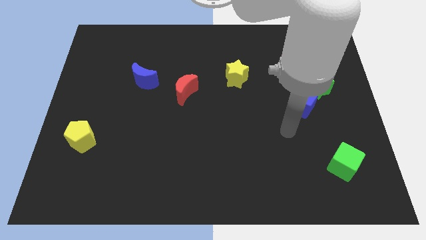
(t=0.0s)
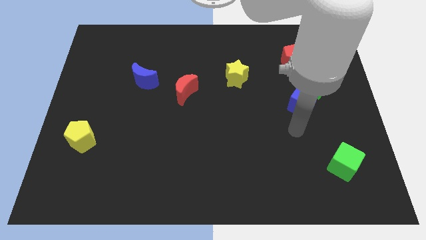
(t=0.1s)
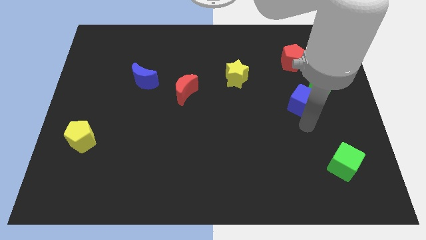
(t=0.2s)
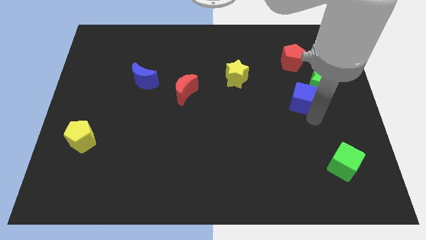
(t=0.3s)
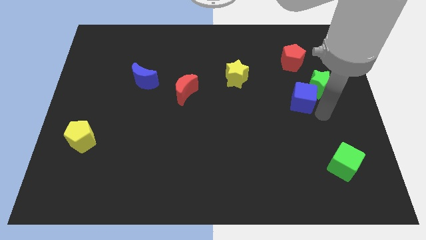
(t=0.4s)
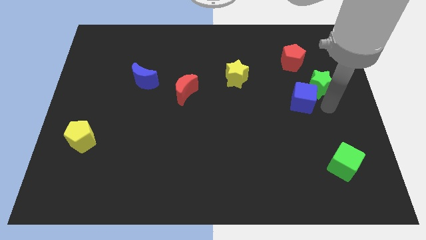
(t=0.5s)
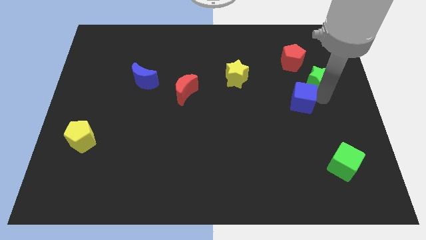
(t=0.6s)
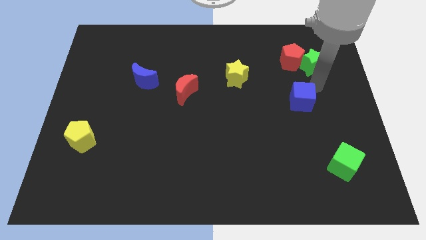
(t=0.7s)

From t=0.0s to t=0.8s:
separate the blue cube from the green star

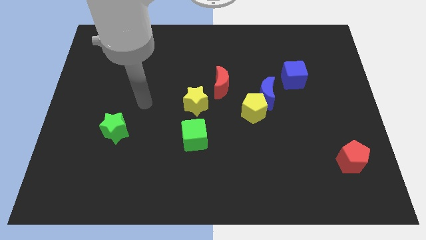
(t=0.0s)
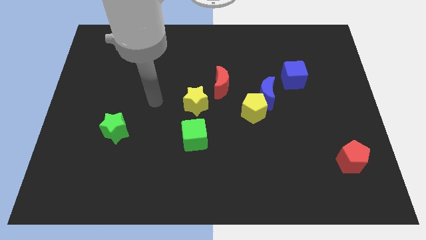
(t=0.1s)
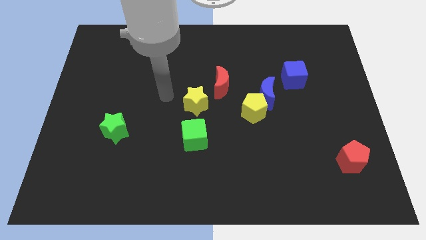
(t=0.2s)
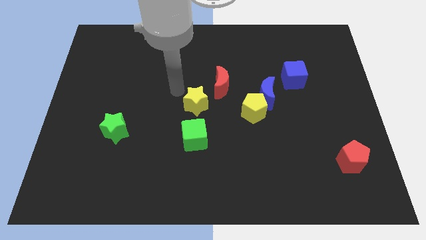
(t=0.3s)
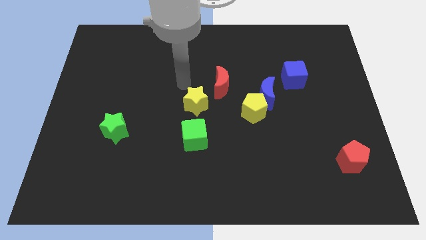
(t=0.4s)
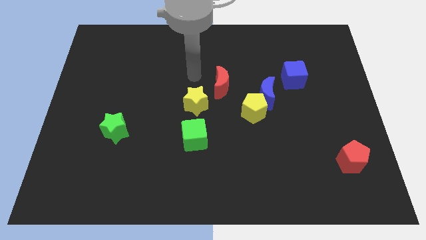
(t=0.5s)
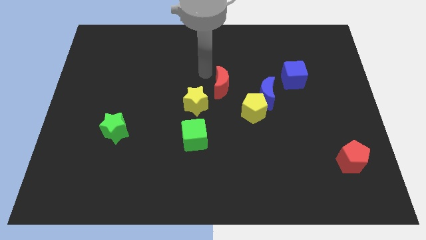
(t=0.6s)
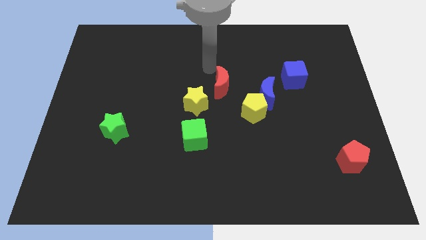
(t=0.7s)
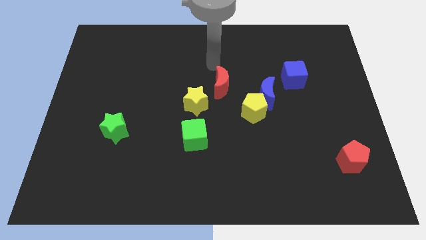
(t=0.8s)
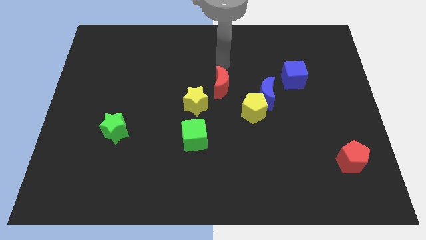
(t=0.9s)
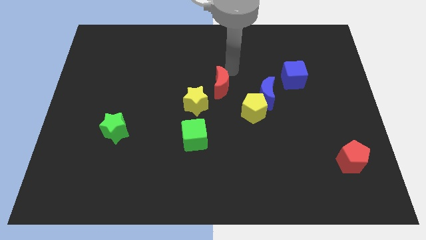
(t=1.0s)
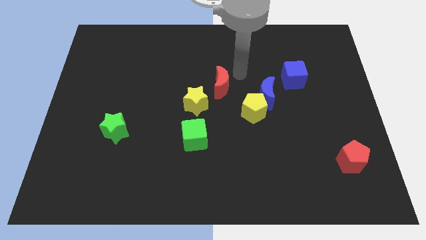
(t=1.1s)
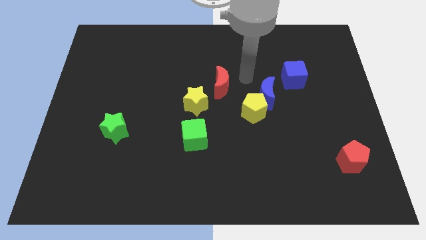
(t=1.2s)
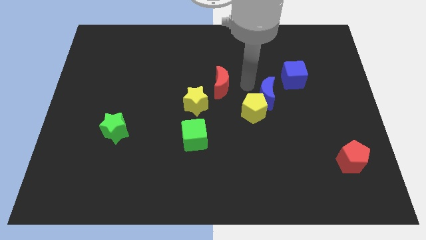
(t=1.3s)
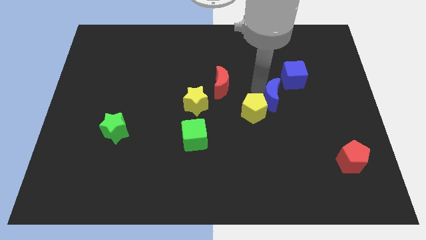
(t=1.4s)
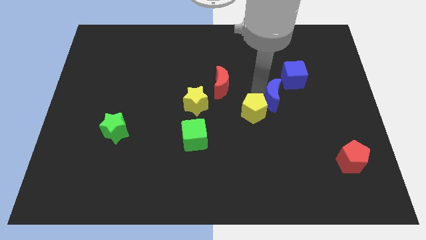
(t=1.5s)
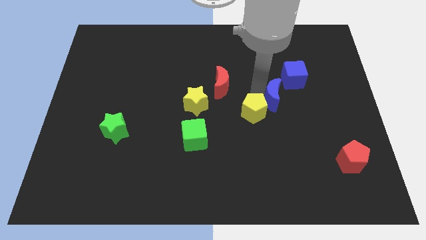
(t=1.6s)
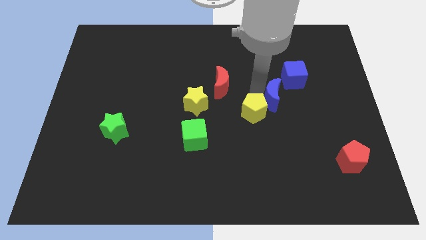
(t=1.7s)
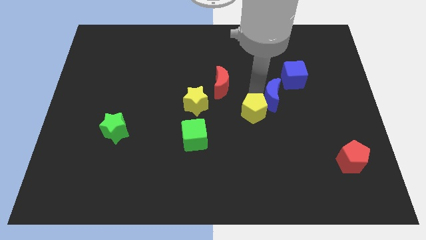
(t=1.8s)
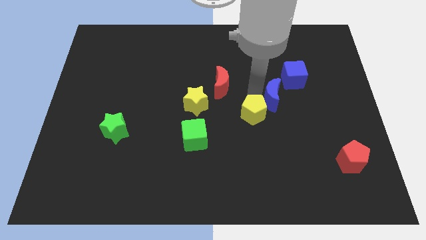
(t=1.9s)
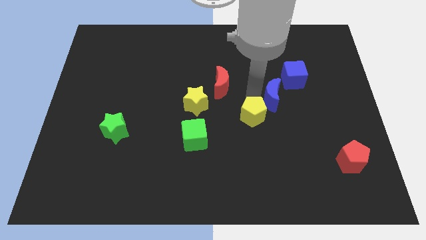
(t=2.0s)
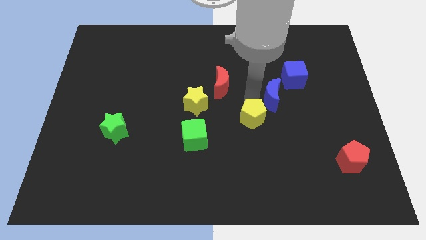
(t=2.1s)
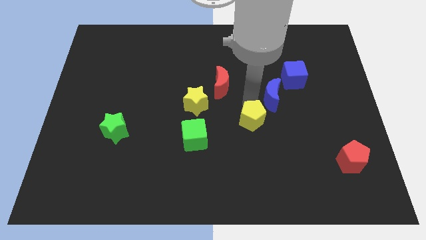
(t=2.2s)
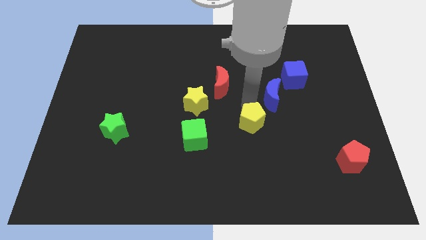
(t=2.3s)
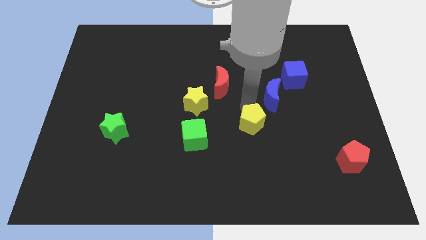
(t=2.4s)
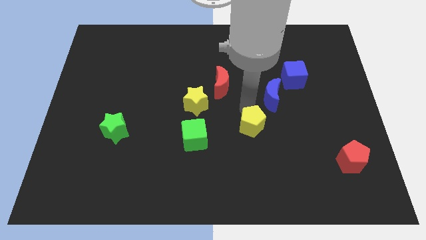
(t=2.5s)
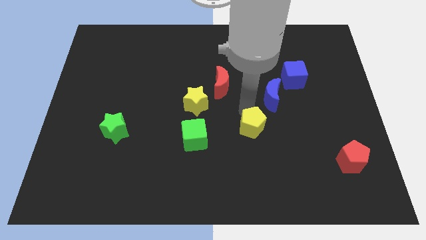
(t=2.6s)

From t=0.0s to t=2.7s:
separate the yellow pentagon from the blue moon

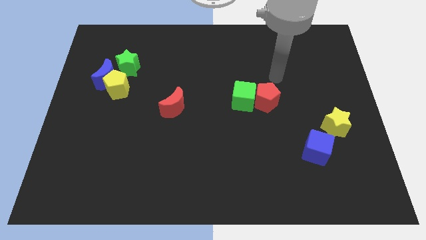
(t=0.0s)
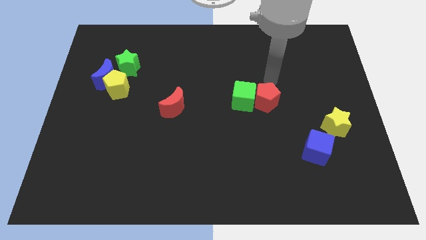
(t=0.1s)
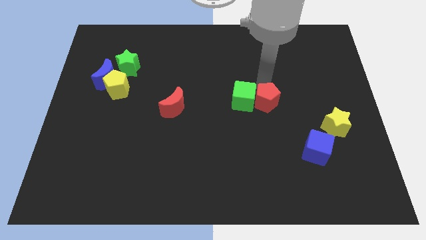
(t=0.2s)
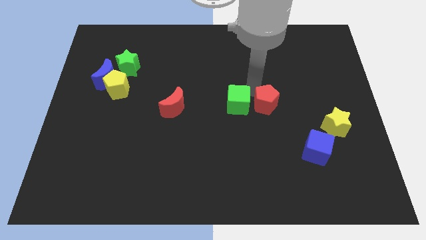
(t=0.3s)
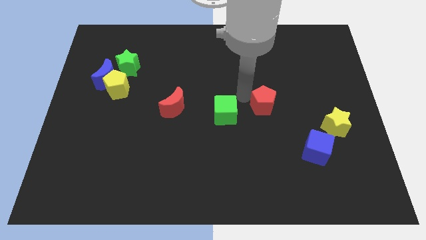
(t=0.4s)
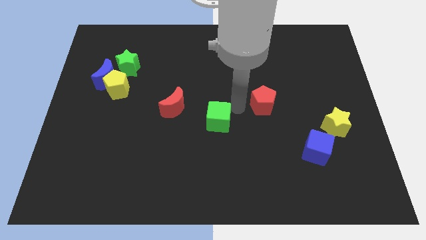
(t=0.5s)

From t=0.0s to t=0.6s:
pull the red pentagon apart from the green cube

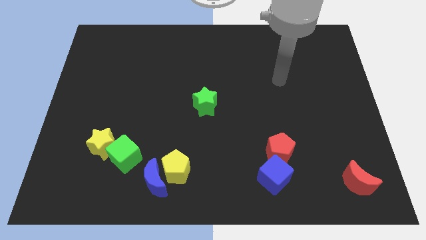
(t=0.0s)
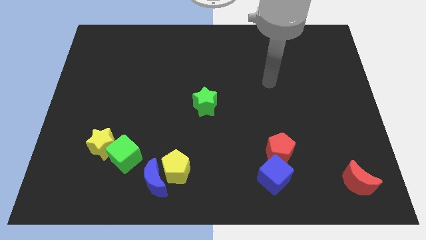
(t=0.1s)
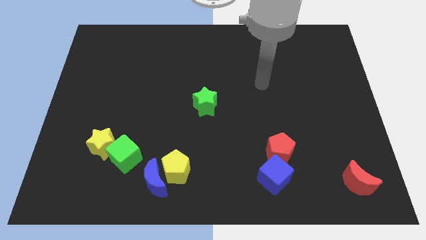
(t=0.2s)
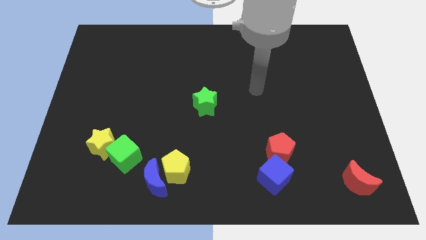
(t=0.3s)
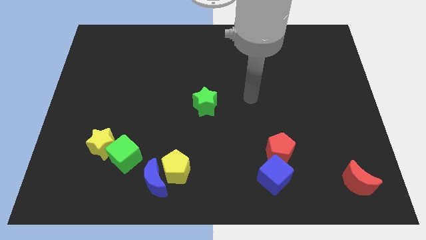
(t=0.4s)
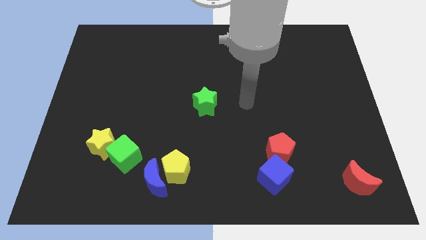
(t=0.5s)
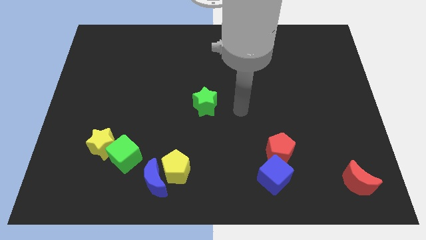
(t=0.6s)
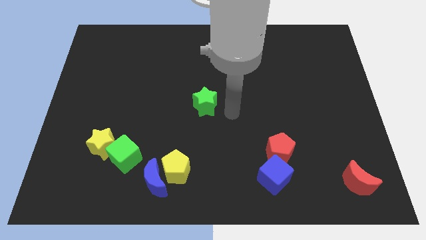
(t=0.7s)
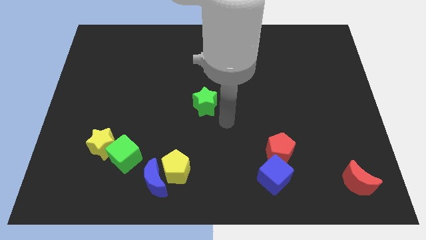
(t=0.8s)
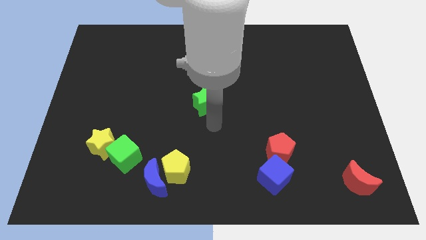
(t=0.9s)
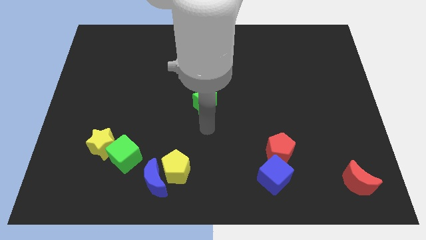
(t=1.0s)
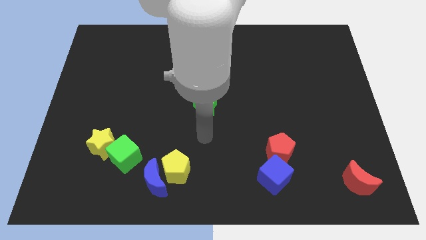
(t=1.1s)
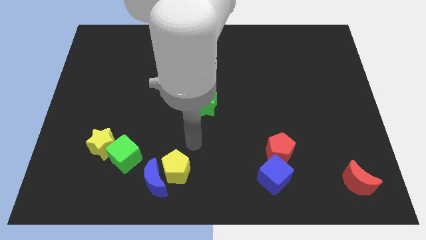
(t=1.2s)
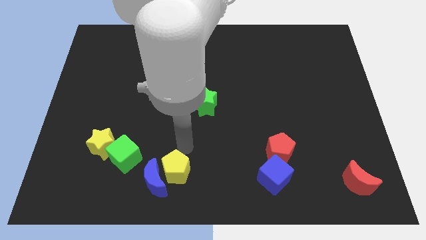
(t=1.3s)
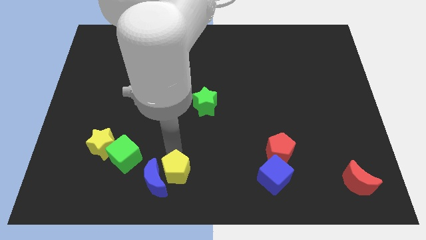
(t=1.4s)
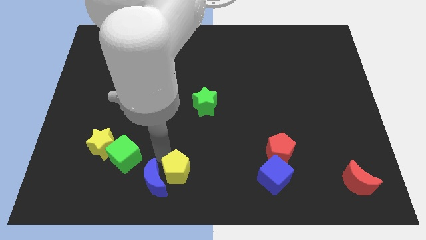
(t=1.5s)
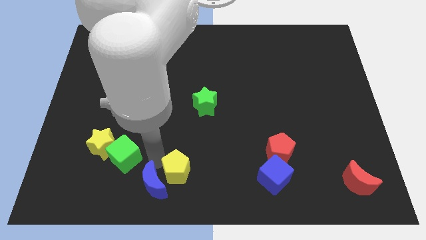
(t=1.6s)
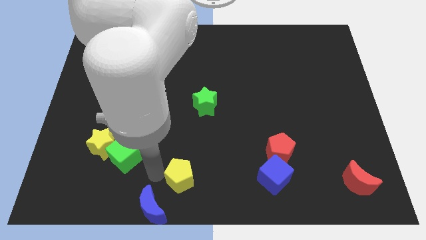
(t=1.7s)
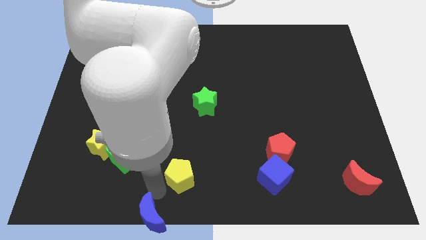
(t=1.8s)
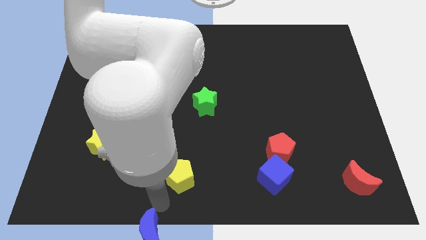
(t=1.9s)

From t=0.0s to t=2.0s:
move the yellow pentagon away from the blue moon

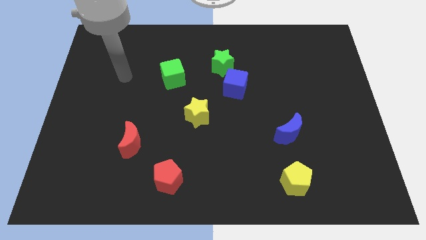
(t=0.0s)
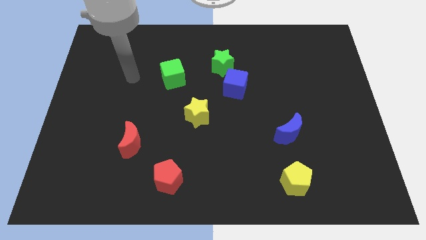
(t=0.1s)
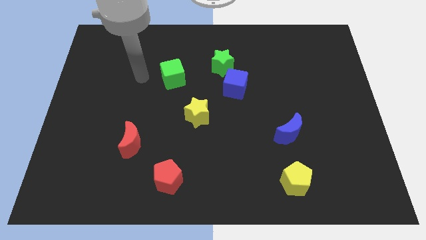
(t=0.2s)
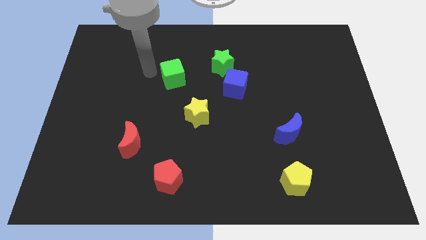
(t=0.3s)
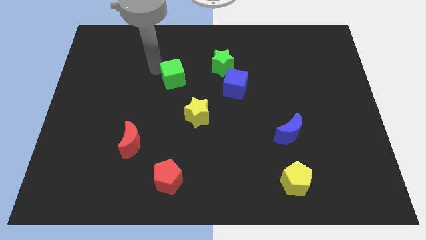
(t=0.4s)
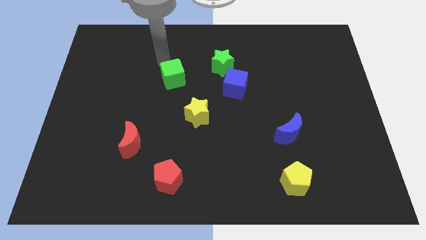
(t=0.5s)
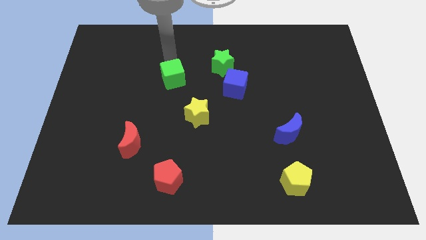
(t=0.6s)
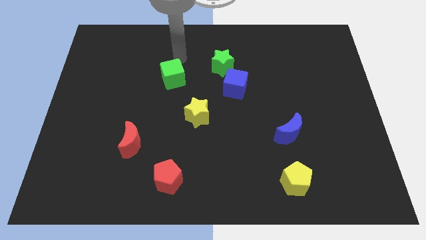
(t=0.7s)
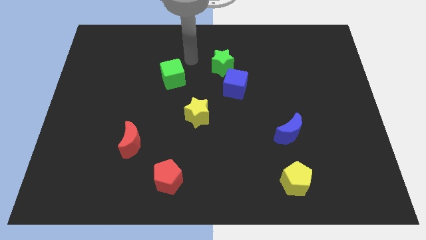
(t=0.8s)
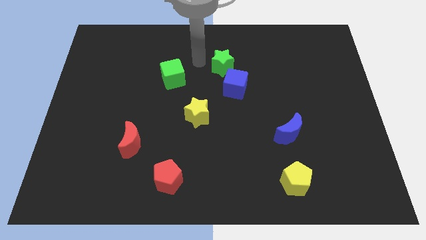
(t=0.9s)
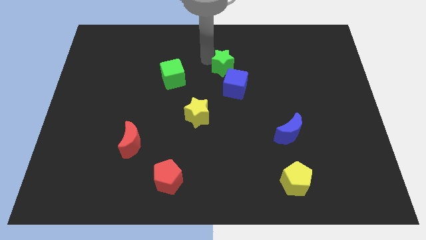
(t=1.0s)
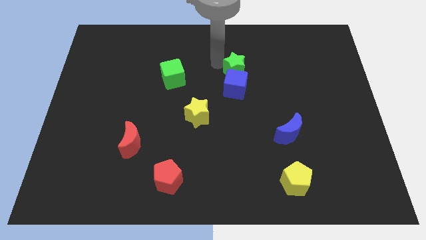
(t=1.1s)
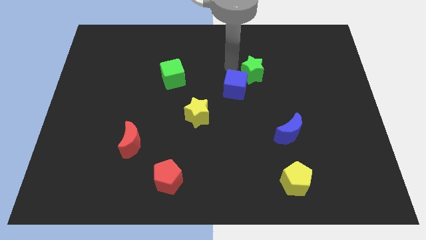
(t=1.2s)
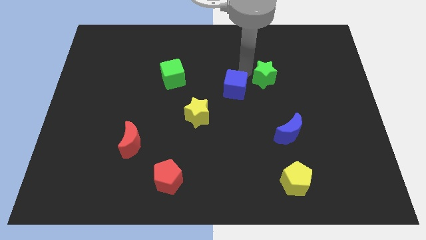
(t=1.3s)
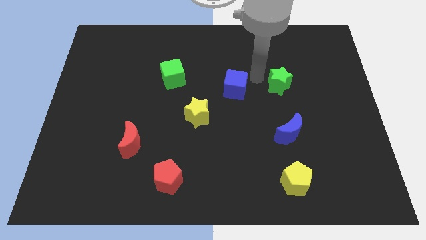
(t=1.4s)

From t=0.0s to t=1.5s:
move the blue cube away from the green star

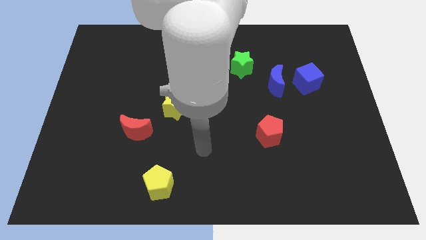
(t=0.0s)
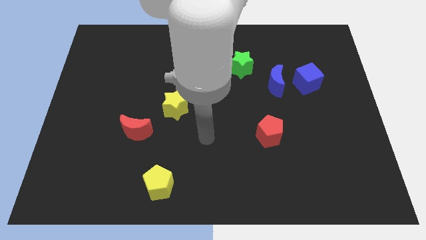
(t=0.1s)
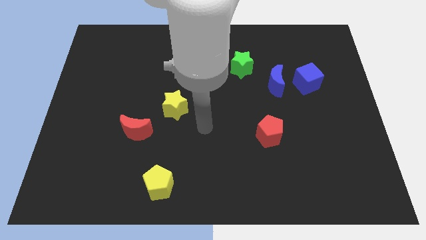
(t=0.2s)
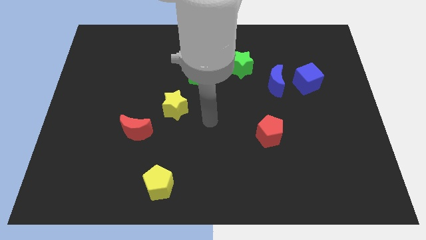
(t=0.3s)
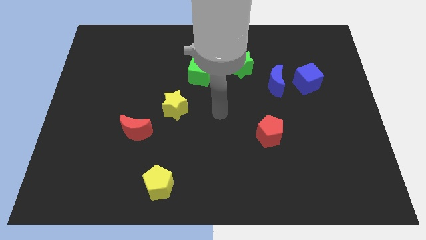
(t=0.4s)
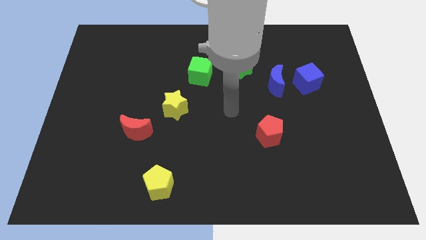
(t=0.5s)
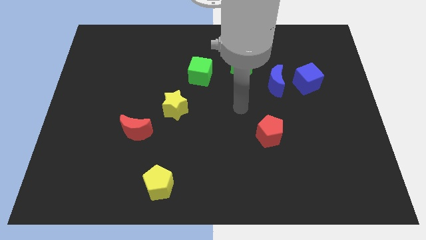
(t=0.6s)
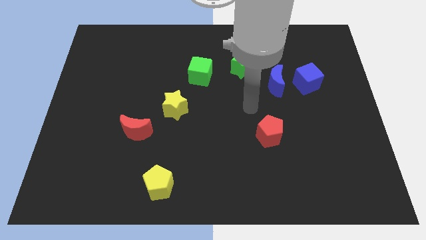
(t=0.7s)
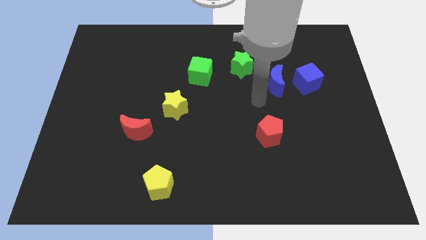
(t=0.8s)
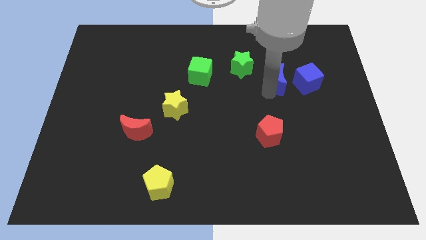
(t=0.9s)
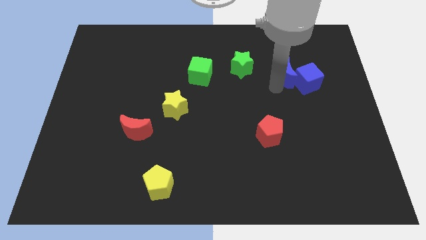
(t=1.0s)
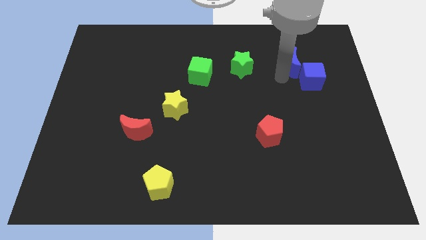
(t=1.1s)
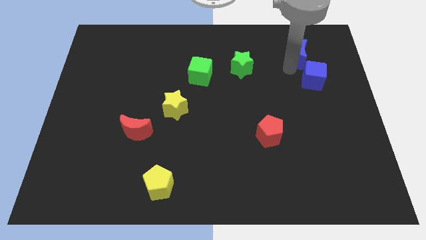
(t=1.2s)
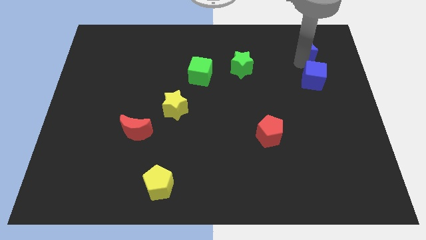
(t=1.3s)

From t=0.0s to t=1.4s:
separate the blue cube from the blue moon

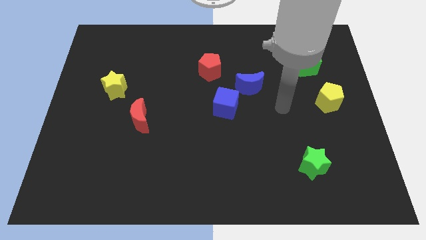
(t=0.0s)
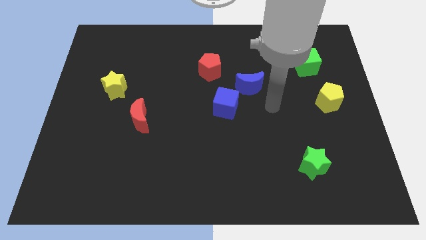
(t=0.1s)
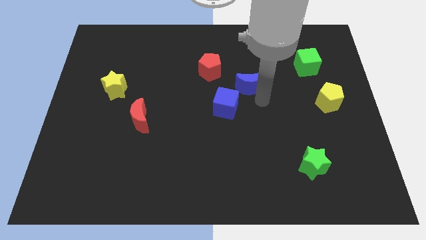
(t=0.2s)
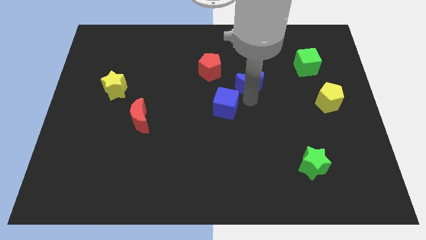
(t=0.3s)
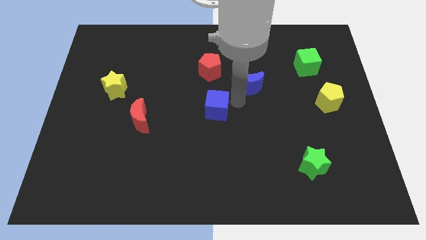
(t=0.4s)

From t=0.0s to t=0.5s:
separate the blue moon from the blue cube
